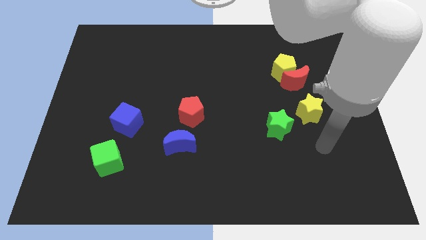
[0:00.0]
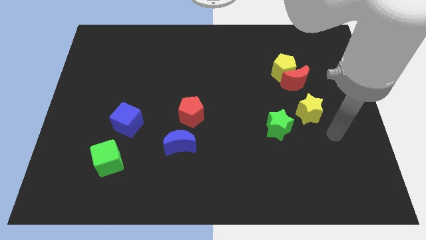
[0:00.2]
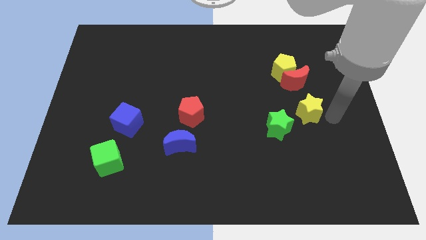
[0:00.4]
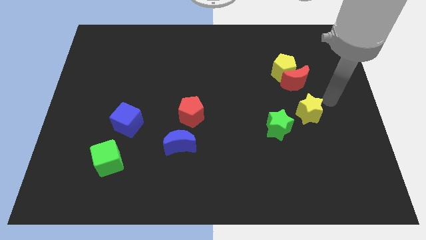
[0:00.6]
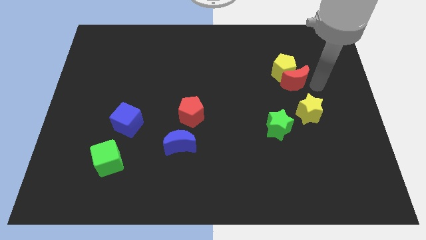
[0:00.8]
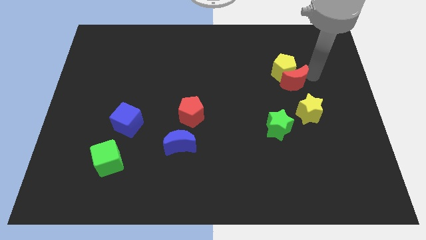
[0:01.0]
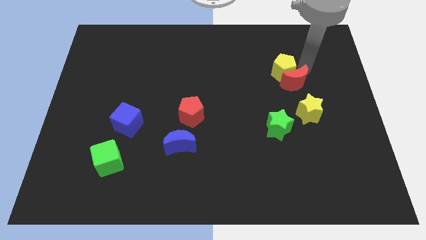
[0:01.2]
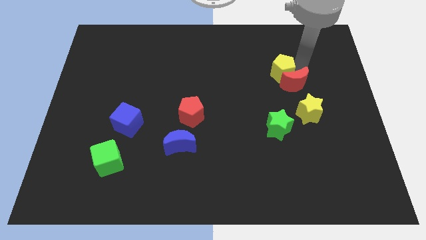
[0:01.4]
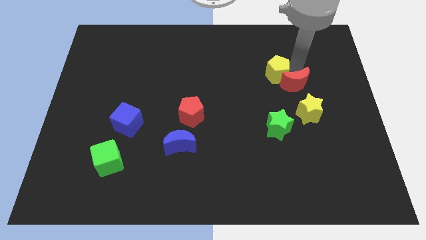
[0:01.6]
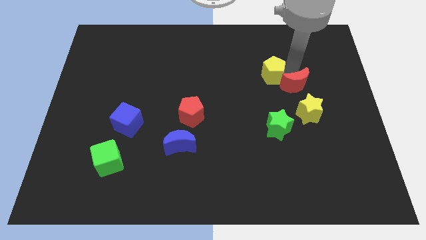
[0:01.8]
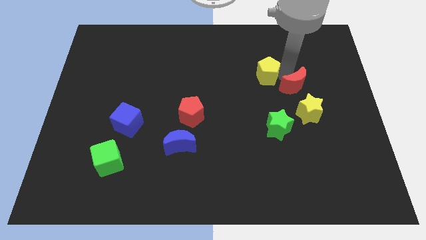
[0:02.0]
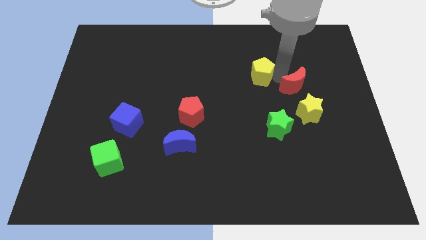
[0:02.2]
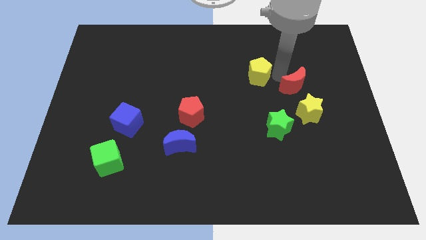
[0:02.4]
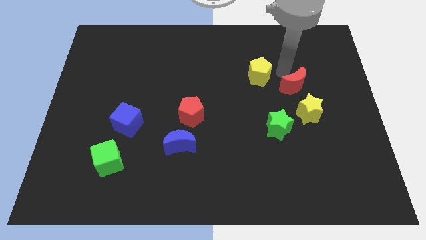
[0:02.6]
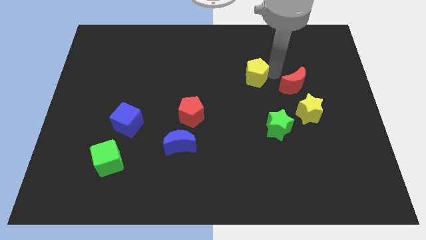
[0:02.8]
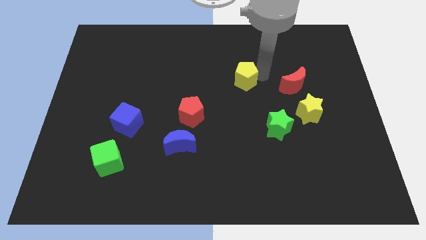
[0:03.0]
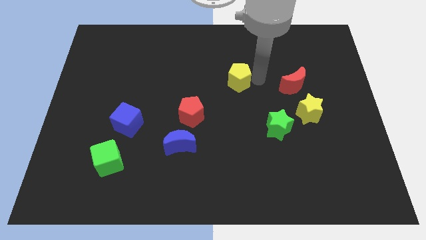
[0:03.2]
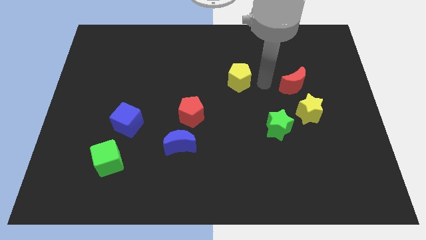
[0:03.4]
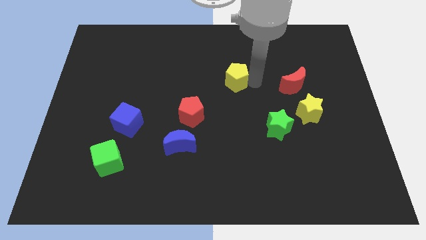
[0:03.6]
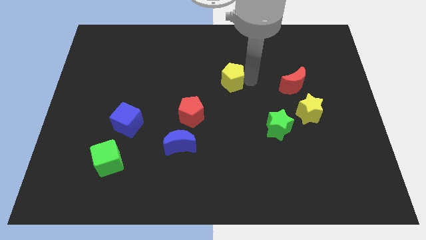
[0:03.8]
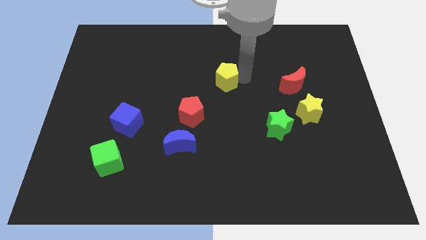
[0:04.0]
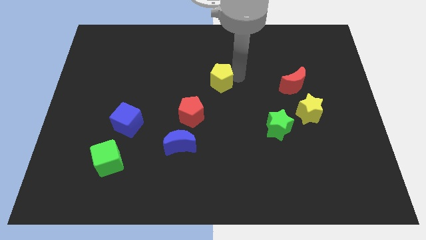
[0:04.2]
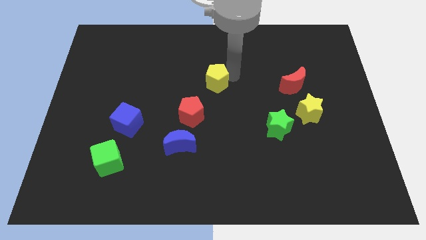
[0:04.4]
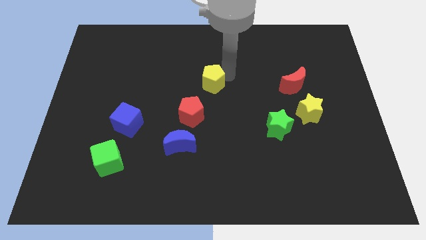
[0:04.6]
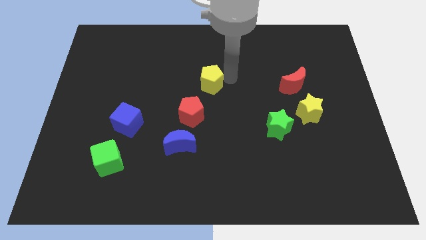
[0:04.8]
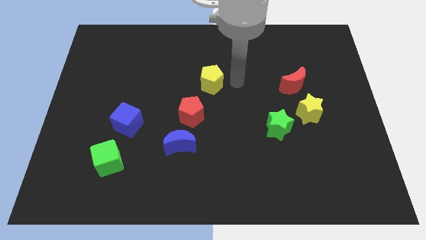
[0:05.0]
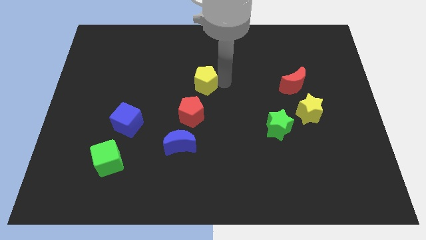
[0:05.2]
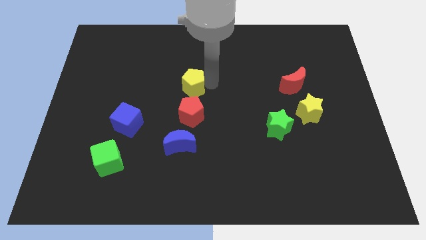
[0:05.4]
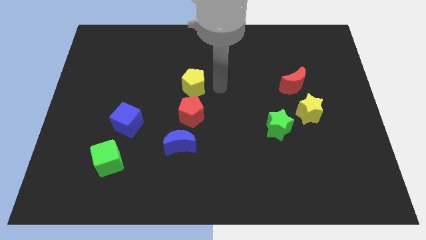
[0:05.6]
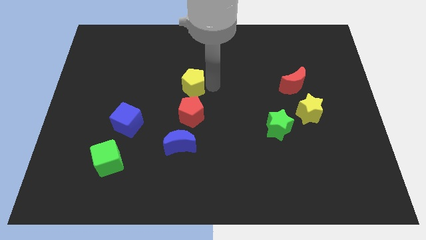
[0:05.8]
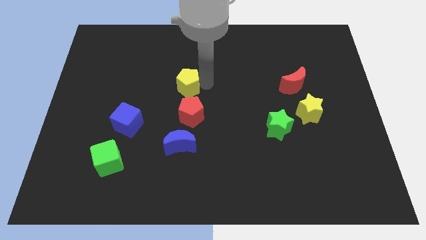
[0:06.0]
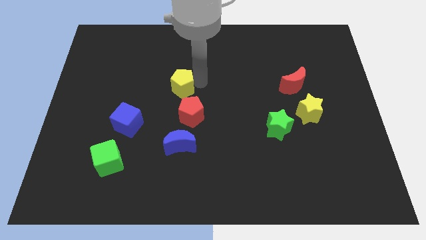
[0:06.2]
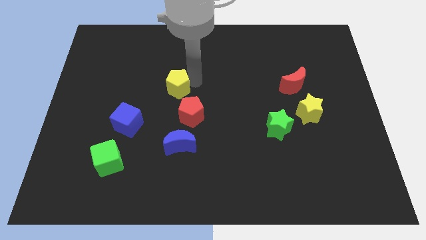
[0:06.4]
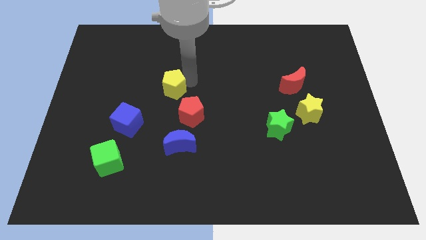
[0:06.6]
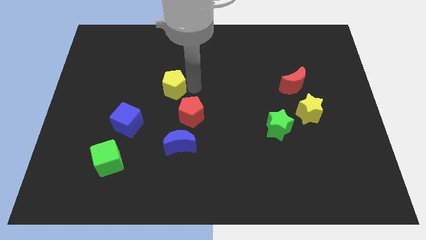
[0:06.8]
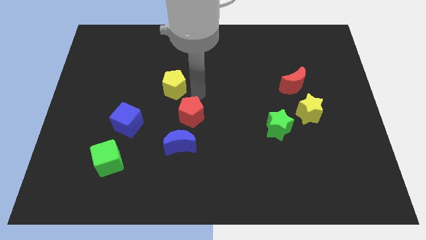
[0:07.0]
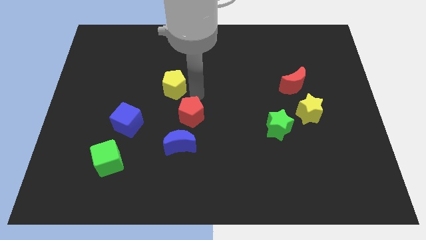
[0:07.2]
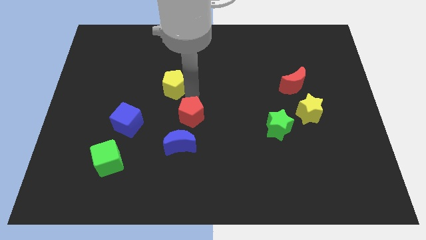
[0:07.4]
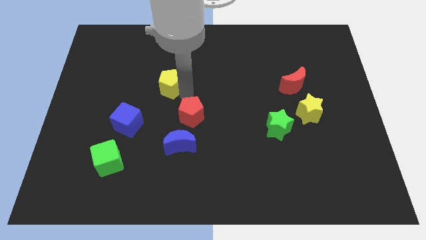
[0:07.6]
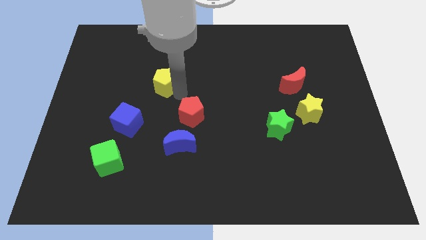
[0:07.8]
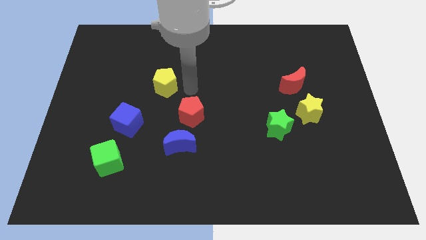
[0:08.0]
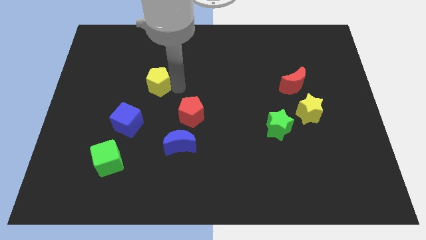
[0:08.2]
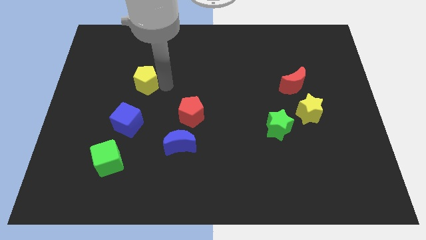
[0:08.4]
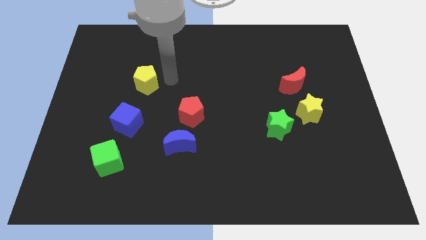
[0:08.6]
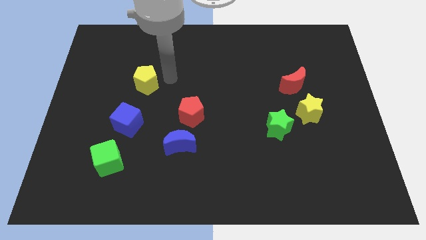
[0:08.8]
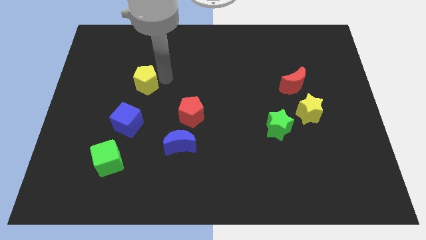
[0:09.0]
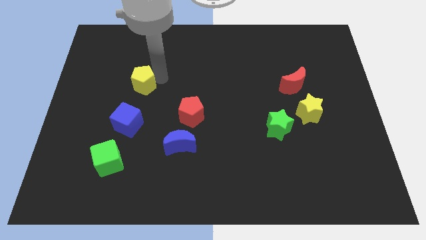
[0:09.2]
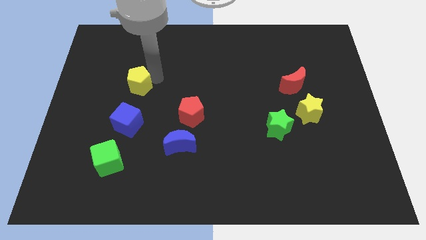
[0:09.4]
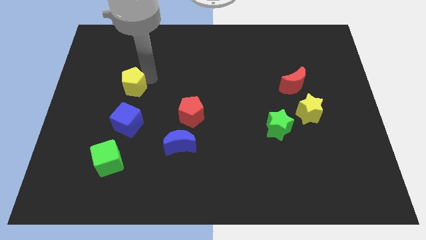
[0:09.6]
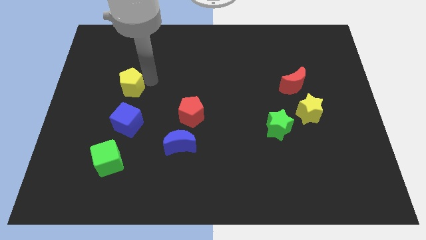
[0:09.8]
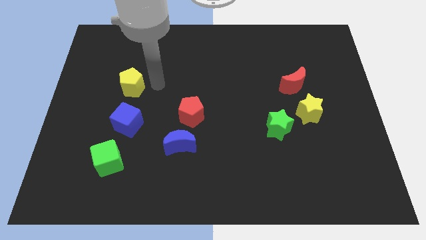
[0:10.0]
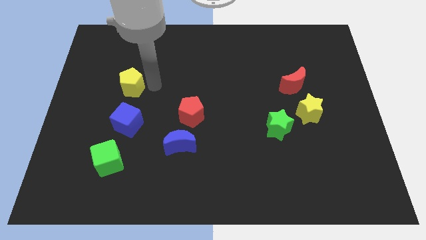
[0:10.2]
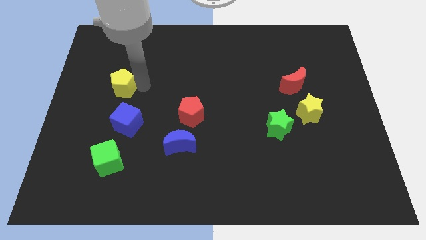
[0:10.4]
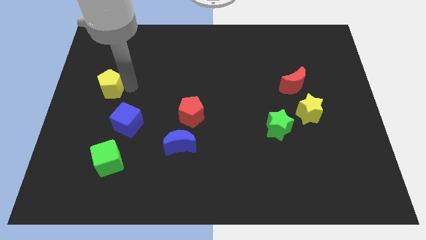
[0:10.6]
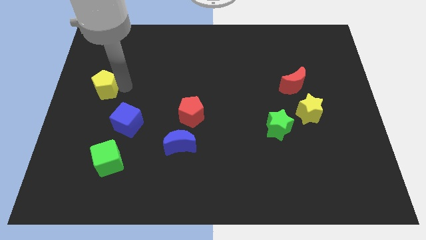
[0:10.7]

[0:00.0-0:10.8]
put the yellow pentagon to the left side
